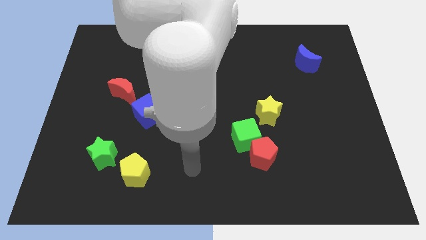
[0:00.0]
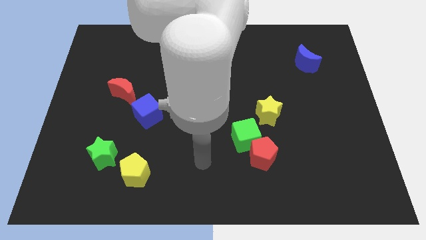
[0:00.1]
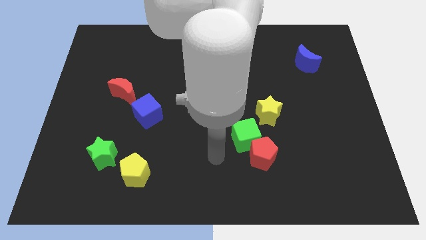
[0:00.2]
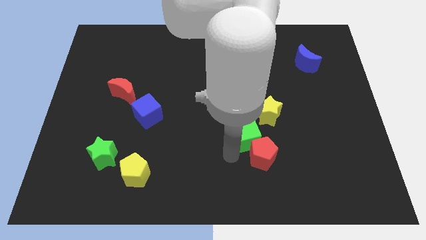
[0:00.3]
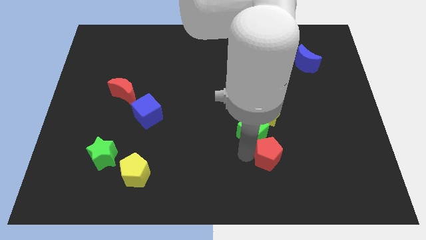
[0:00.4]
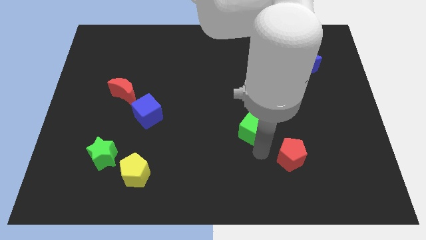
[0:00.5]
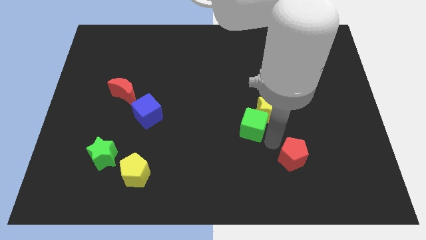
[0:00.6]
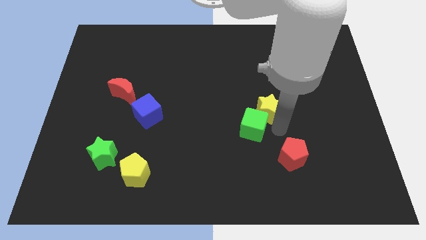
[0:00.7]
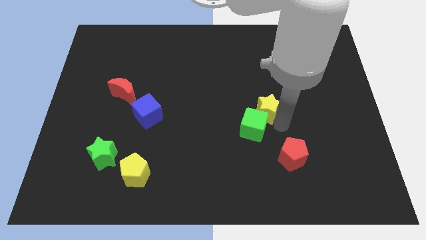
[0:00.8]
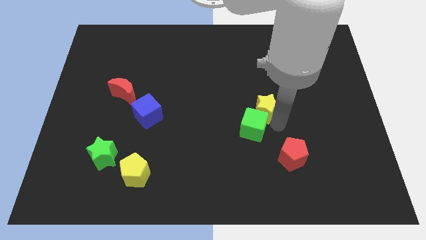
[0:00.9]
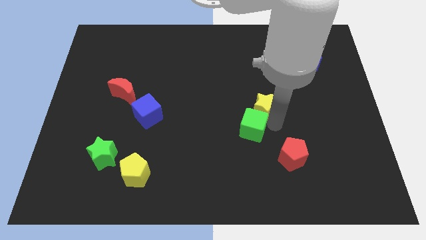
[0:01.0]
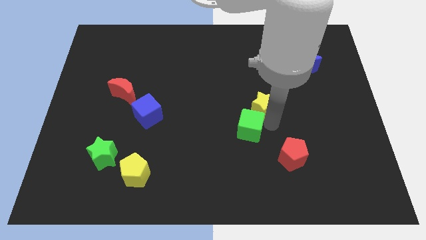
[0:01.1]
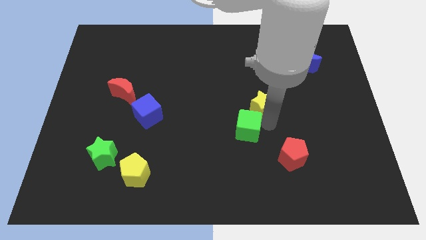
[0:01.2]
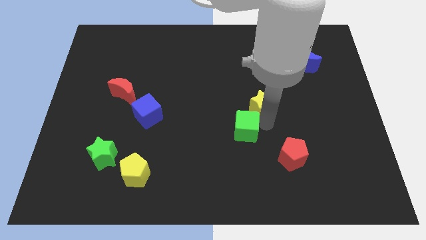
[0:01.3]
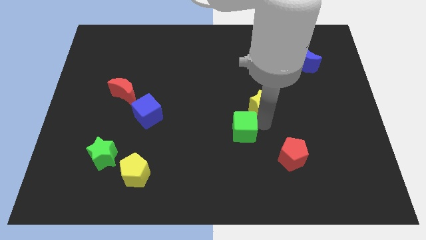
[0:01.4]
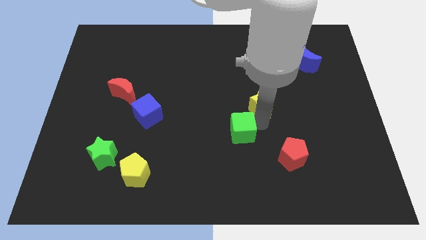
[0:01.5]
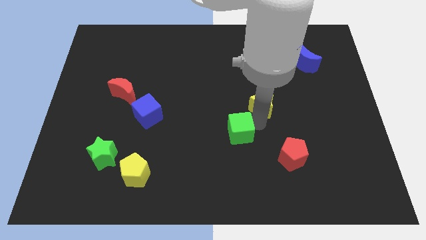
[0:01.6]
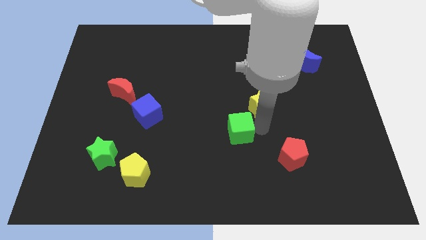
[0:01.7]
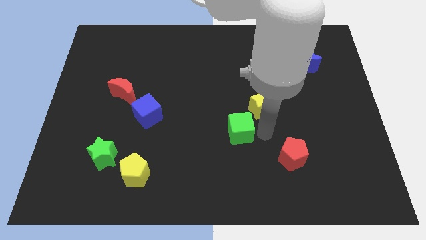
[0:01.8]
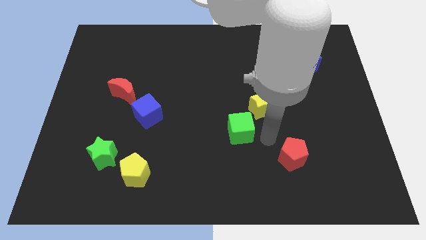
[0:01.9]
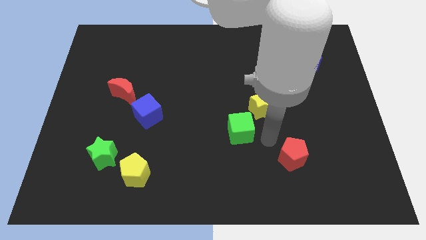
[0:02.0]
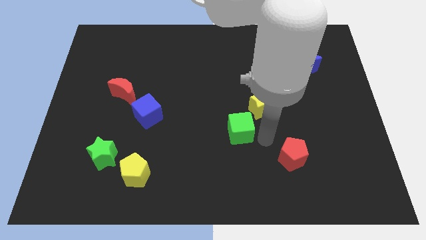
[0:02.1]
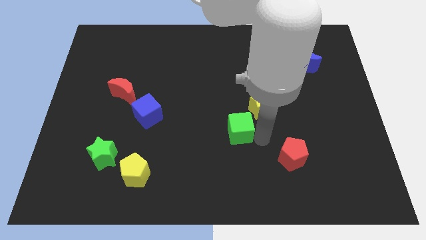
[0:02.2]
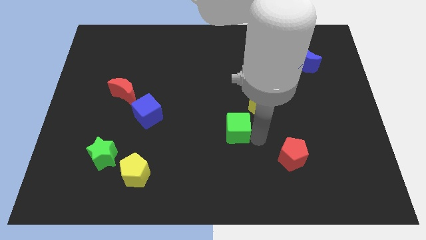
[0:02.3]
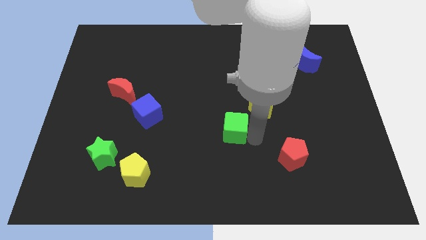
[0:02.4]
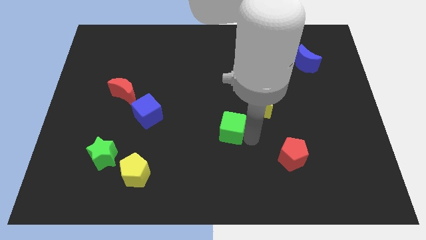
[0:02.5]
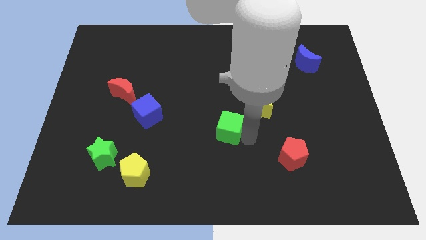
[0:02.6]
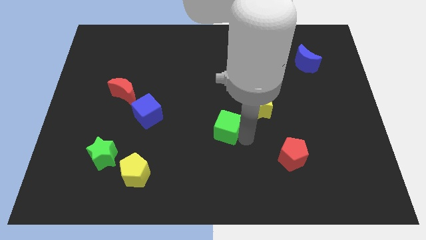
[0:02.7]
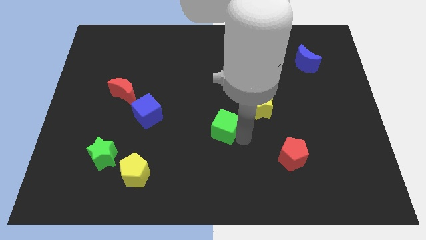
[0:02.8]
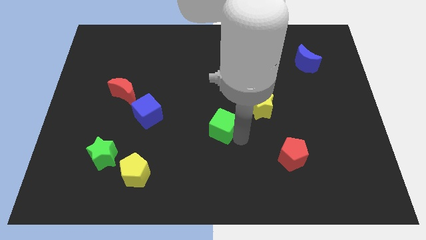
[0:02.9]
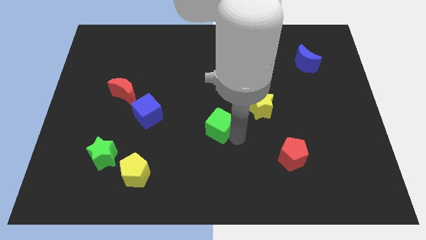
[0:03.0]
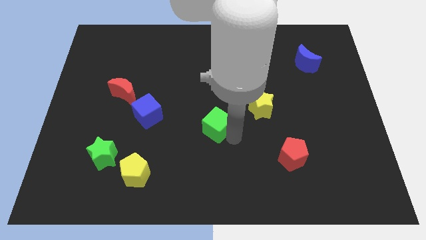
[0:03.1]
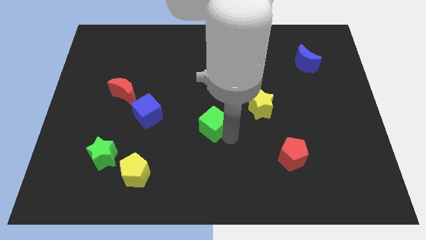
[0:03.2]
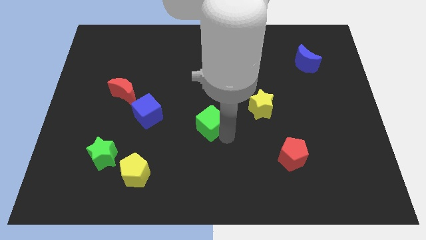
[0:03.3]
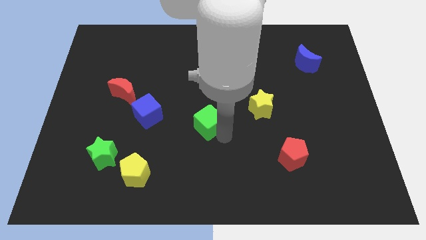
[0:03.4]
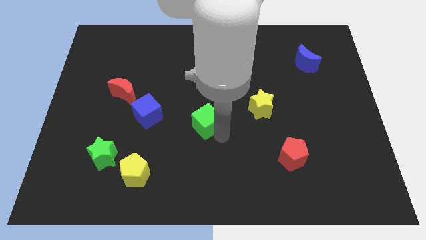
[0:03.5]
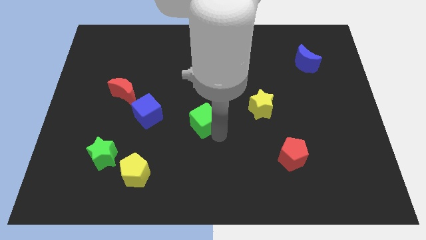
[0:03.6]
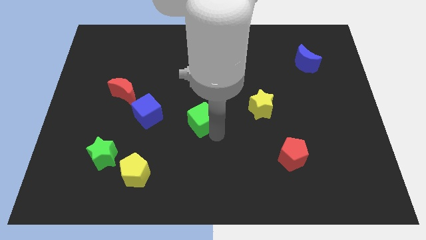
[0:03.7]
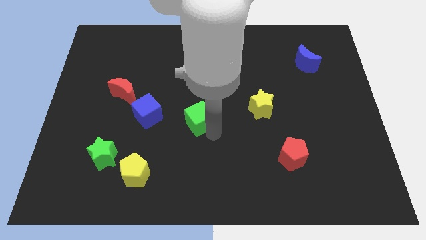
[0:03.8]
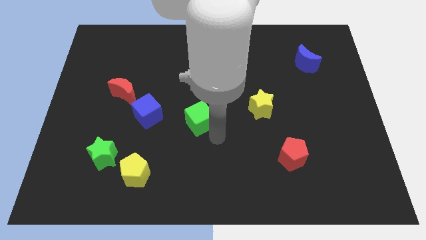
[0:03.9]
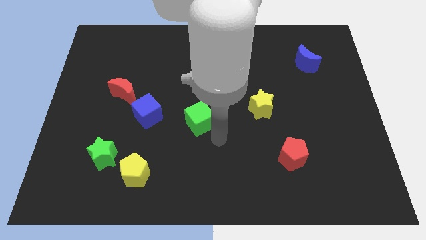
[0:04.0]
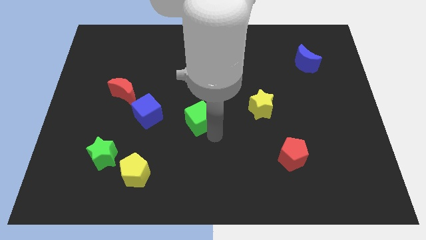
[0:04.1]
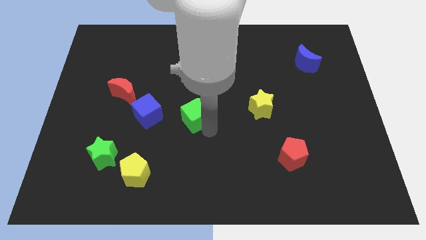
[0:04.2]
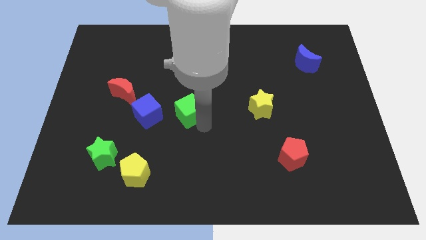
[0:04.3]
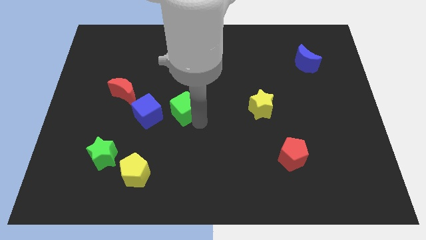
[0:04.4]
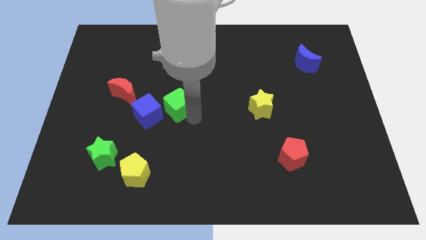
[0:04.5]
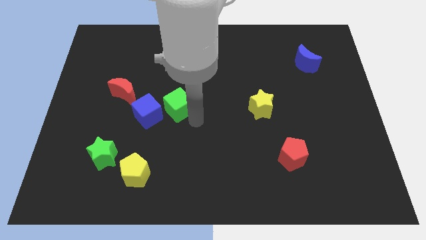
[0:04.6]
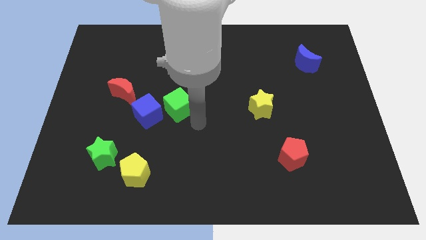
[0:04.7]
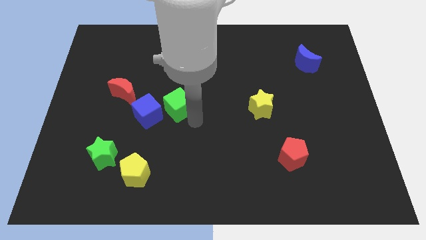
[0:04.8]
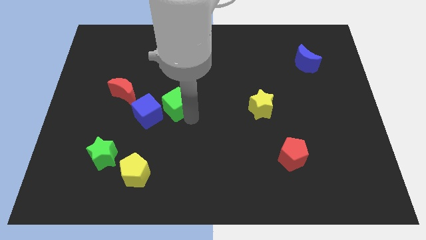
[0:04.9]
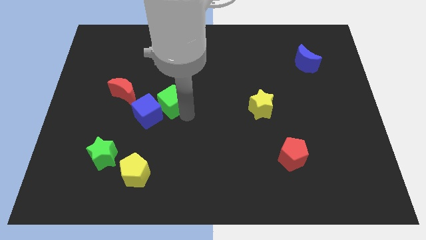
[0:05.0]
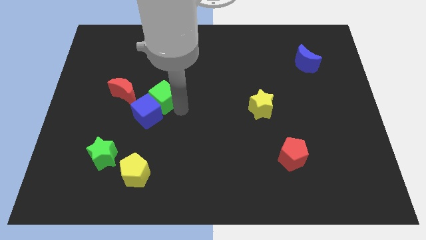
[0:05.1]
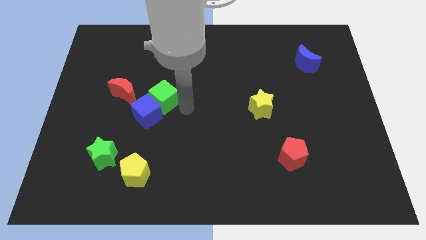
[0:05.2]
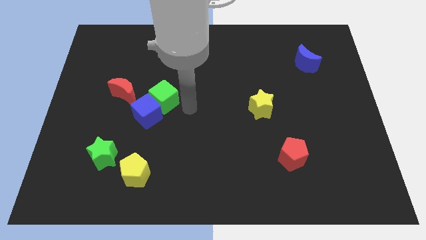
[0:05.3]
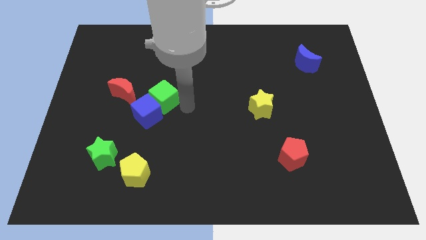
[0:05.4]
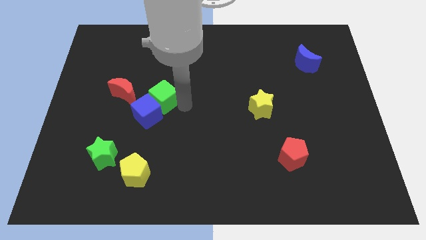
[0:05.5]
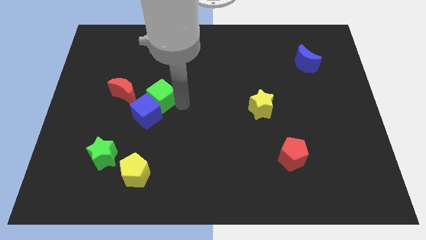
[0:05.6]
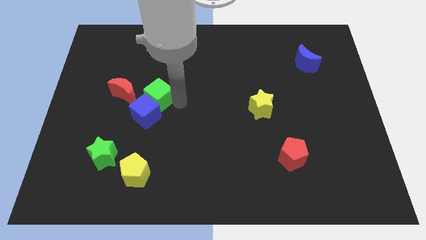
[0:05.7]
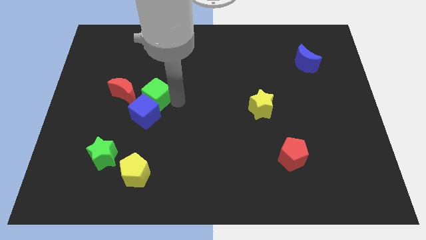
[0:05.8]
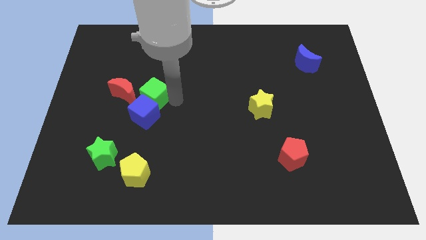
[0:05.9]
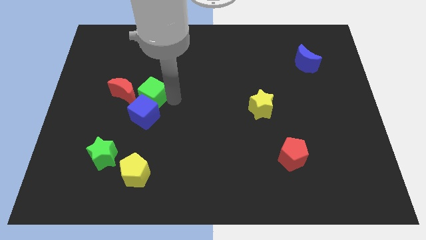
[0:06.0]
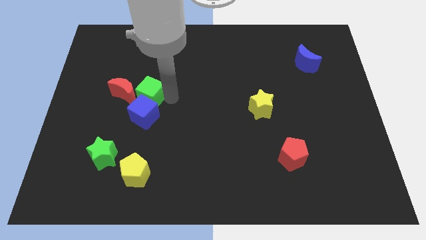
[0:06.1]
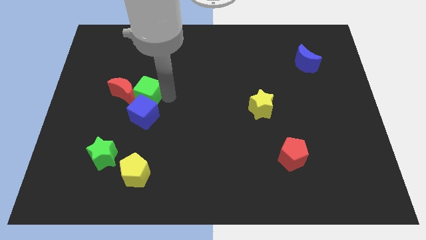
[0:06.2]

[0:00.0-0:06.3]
put the green cube next to the red moon

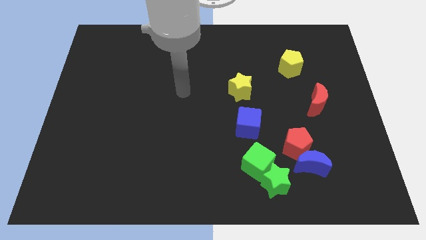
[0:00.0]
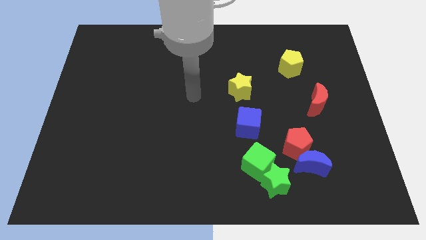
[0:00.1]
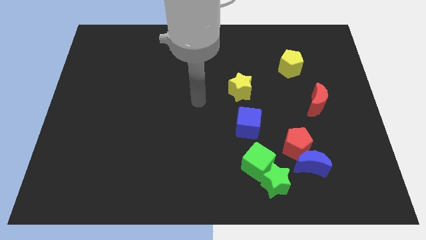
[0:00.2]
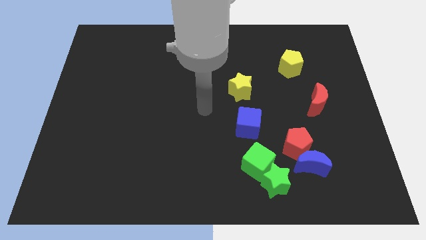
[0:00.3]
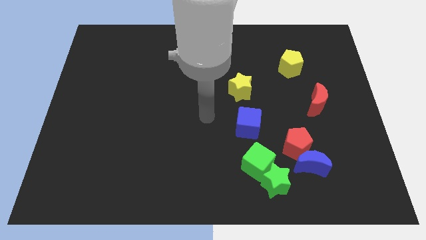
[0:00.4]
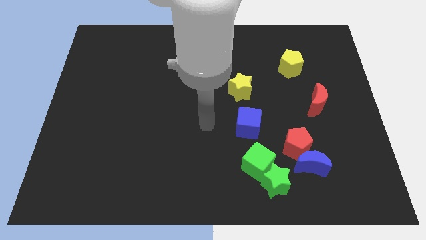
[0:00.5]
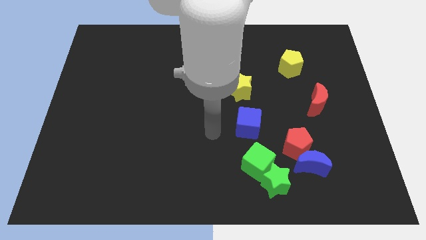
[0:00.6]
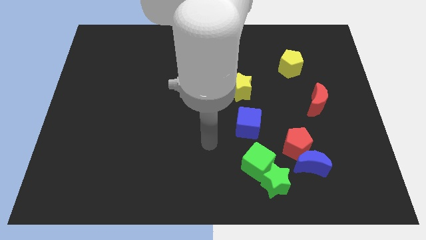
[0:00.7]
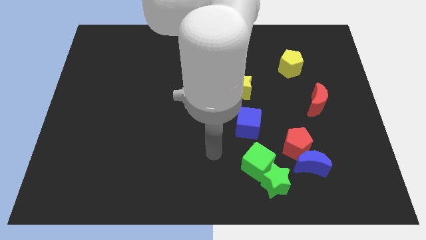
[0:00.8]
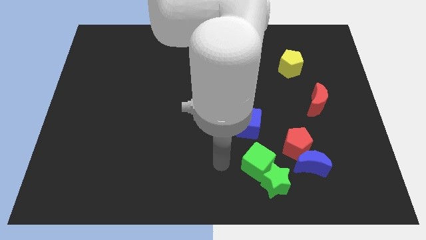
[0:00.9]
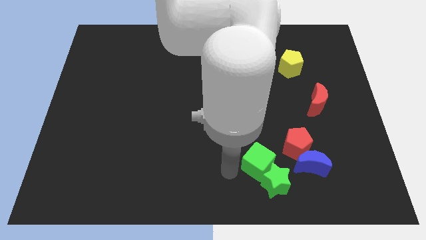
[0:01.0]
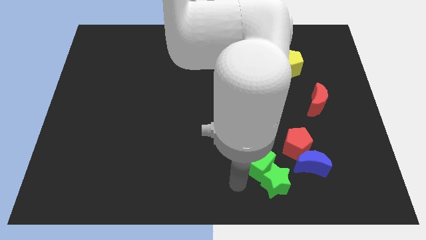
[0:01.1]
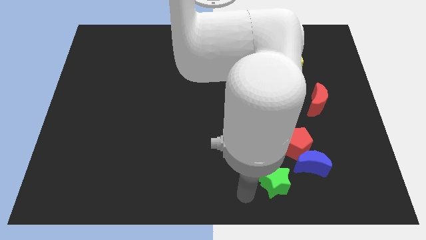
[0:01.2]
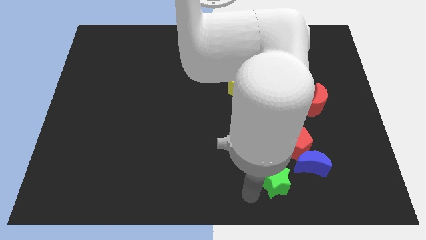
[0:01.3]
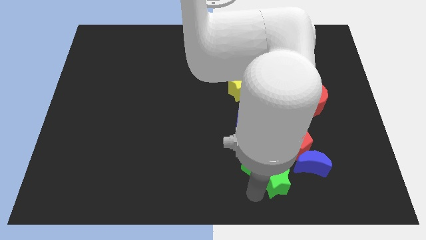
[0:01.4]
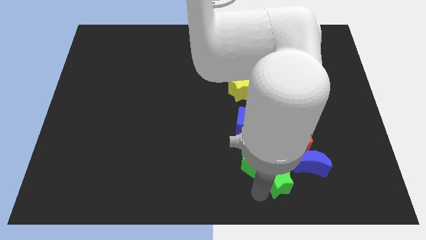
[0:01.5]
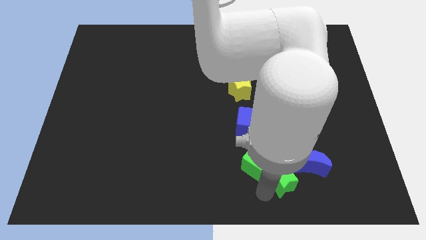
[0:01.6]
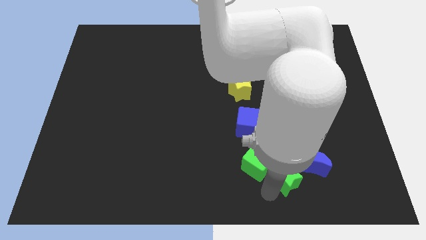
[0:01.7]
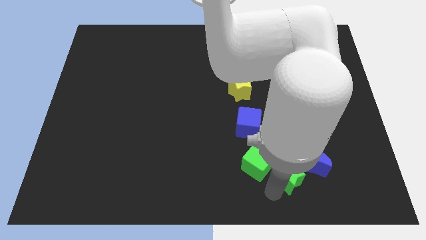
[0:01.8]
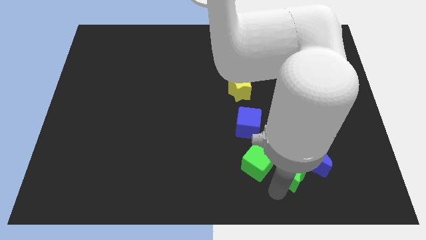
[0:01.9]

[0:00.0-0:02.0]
put the green star next to the blue moon
